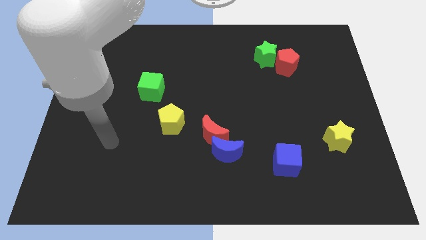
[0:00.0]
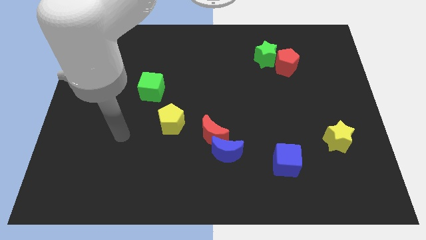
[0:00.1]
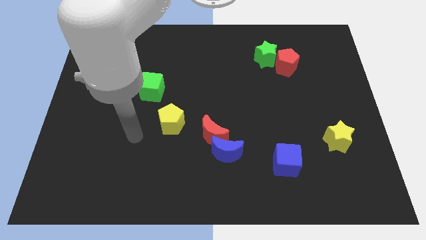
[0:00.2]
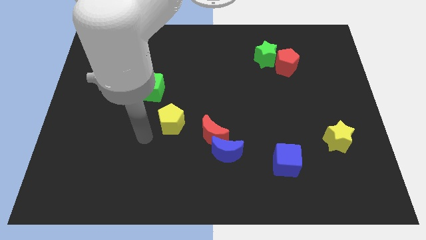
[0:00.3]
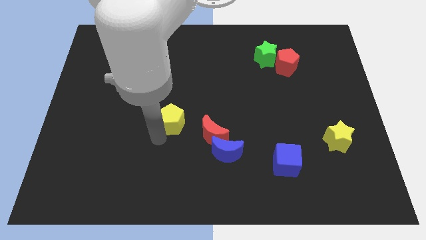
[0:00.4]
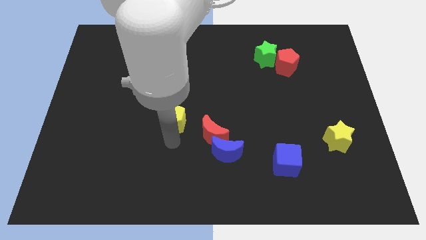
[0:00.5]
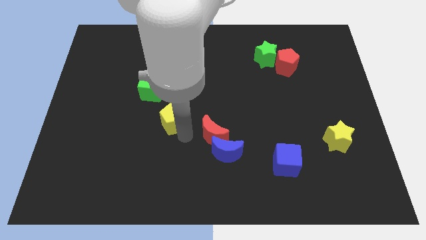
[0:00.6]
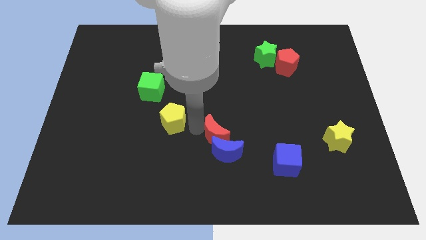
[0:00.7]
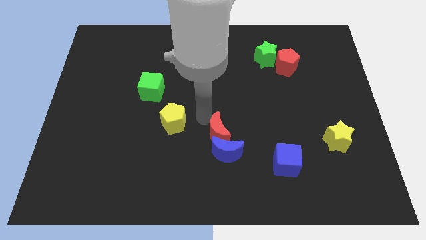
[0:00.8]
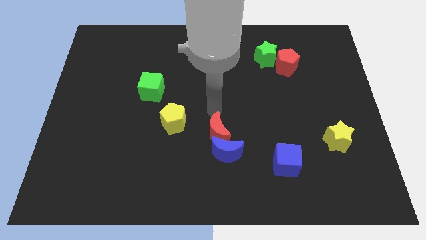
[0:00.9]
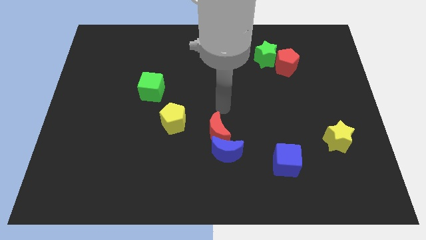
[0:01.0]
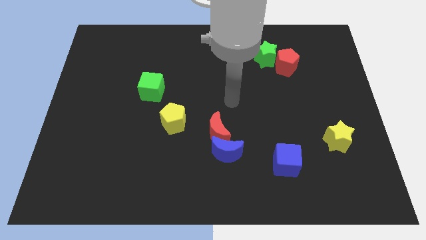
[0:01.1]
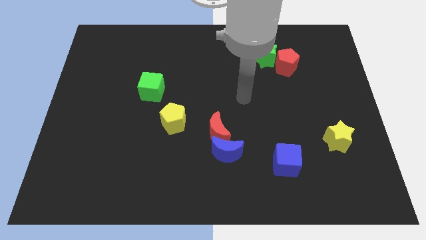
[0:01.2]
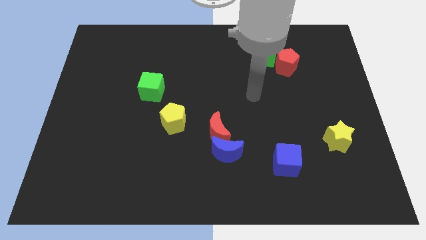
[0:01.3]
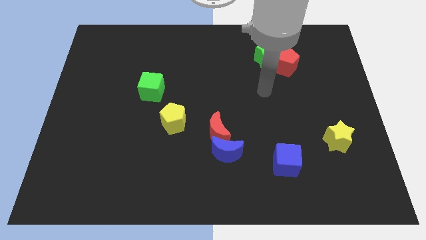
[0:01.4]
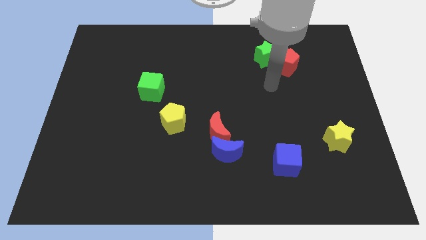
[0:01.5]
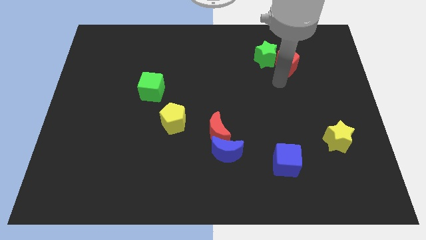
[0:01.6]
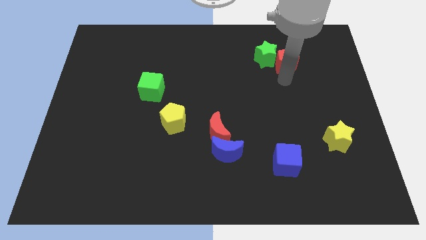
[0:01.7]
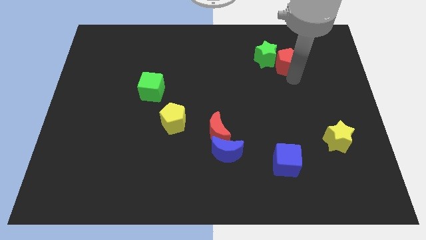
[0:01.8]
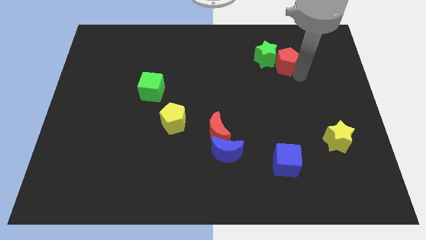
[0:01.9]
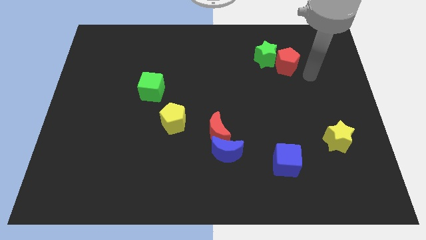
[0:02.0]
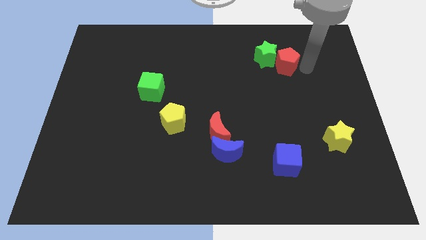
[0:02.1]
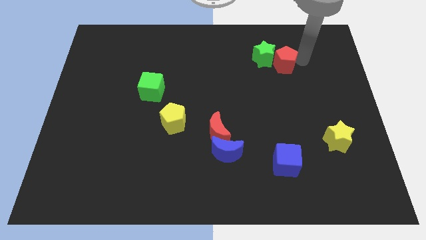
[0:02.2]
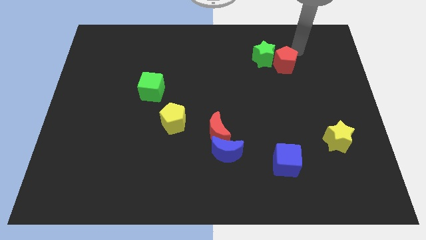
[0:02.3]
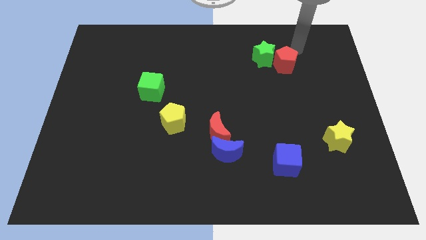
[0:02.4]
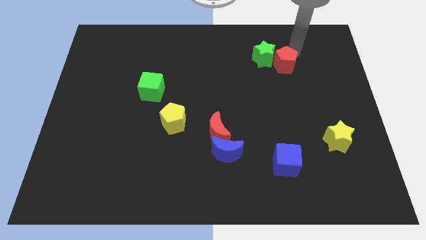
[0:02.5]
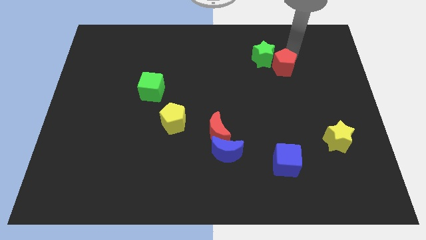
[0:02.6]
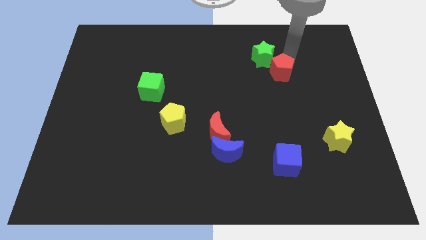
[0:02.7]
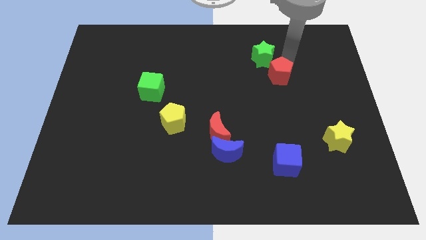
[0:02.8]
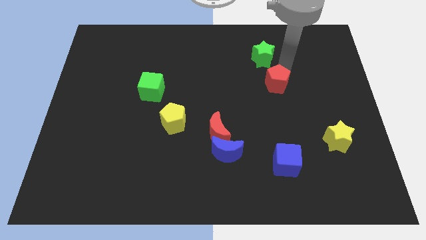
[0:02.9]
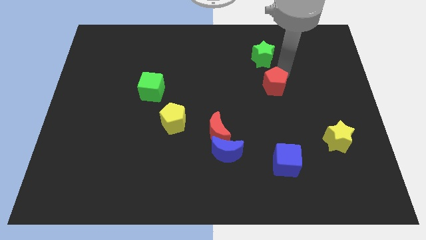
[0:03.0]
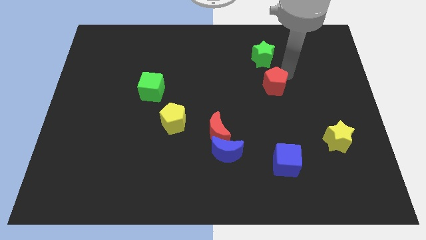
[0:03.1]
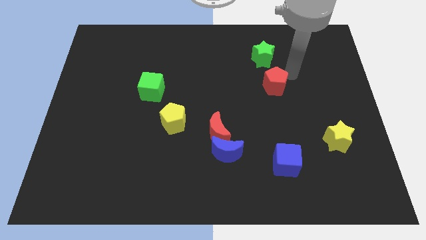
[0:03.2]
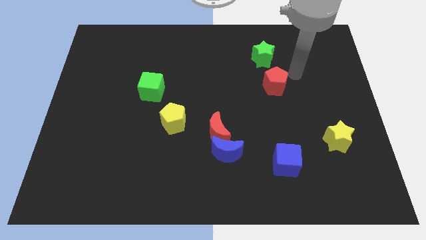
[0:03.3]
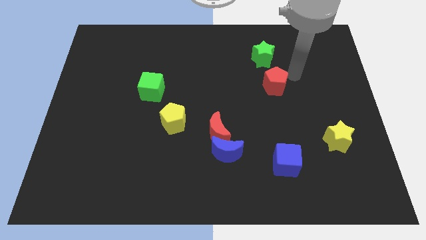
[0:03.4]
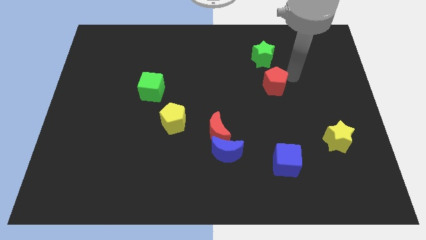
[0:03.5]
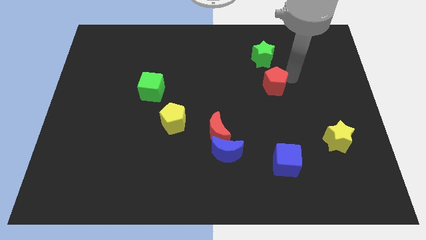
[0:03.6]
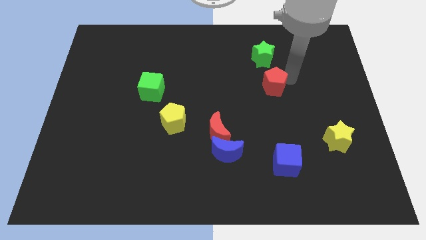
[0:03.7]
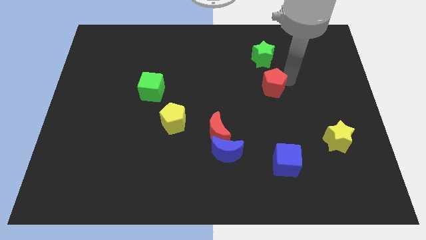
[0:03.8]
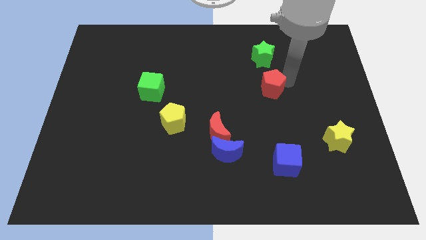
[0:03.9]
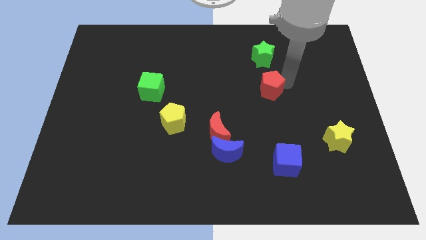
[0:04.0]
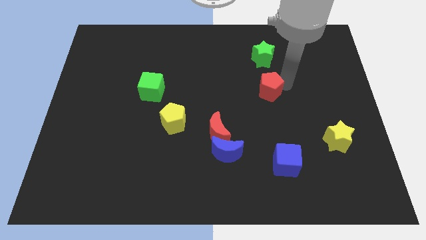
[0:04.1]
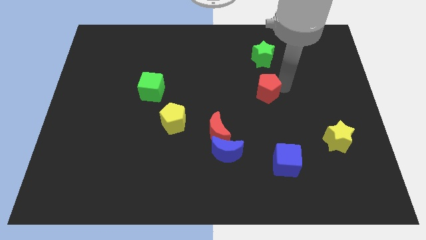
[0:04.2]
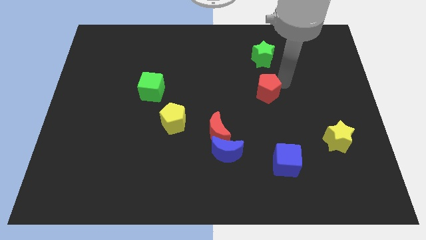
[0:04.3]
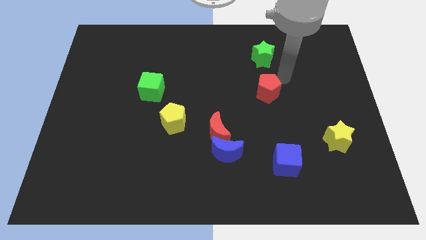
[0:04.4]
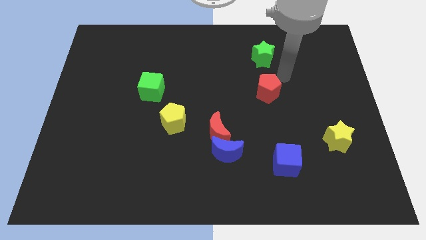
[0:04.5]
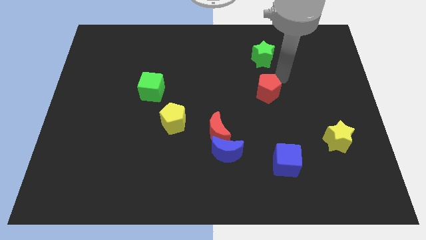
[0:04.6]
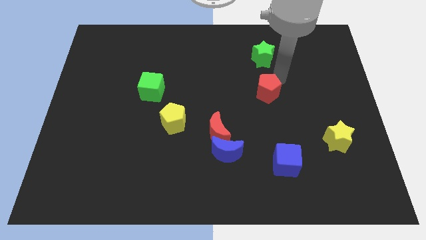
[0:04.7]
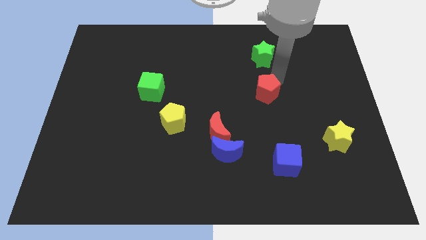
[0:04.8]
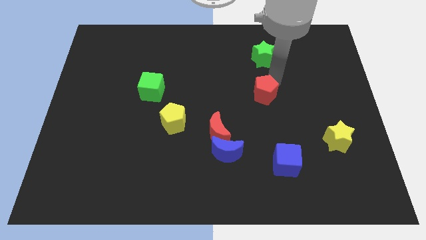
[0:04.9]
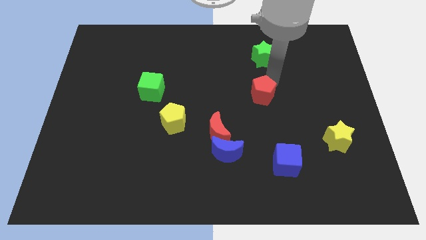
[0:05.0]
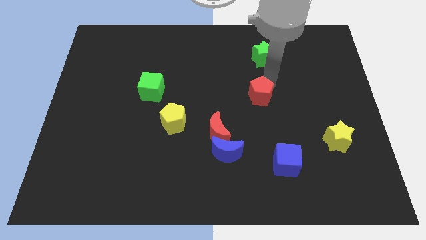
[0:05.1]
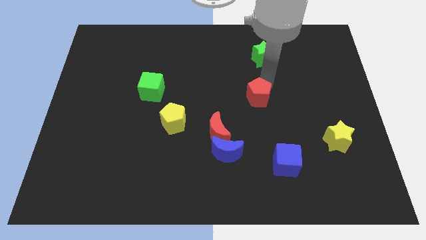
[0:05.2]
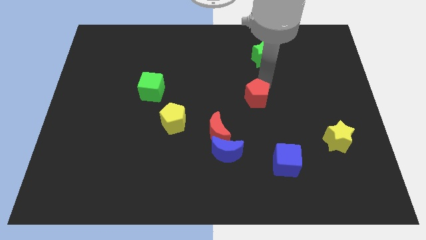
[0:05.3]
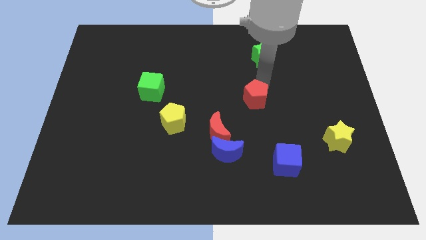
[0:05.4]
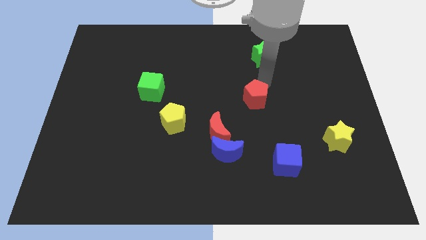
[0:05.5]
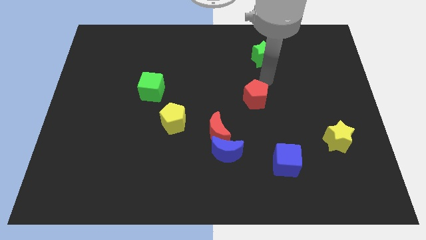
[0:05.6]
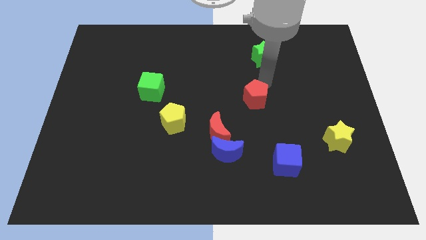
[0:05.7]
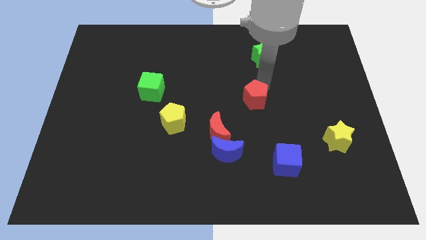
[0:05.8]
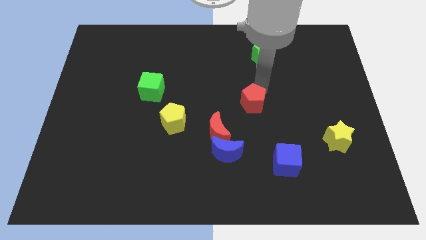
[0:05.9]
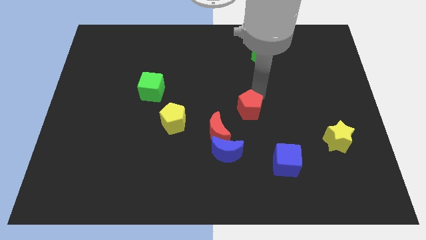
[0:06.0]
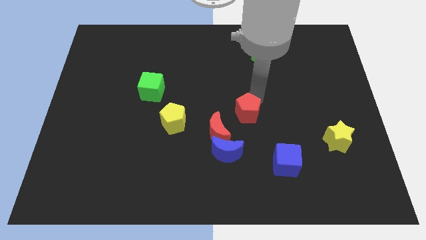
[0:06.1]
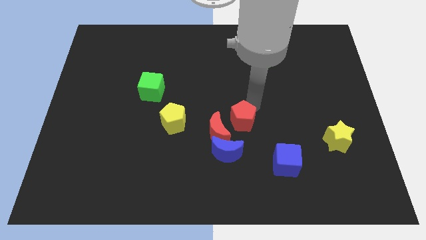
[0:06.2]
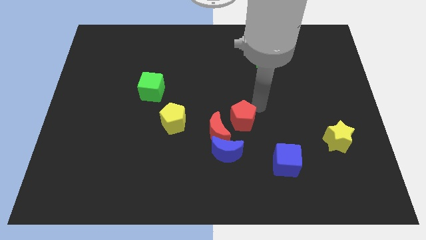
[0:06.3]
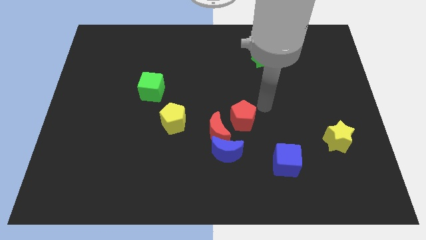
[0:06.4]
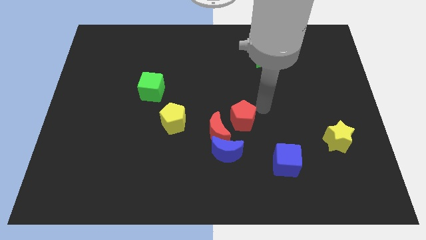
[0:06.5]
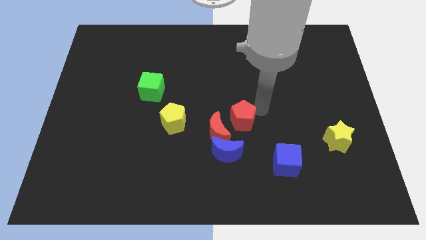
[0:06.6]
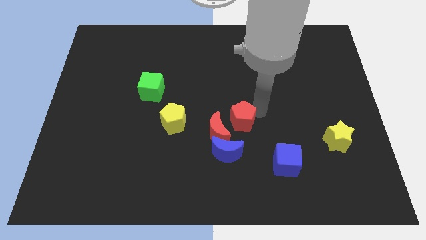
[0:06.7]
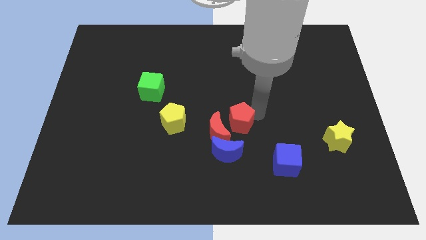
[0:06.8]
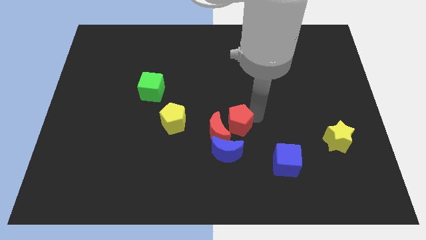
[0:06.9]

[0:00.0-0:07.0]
push the red pentagon close to the red moon
